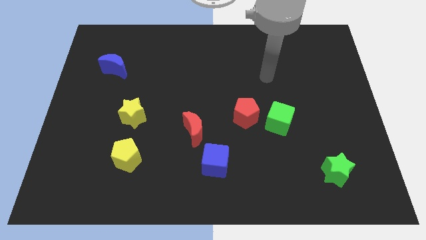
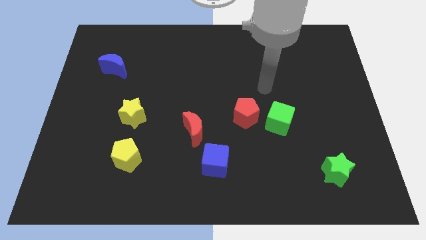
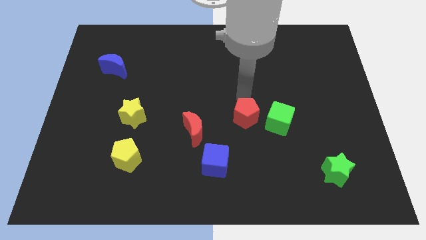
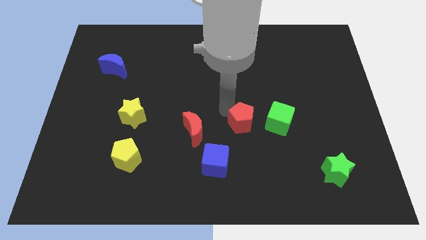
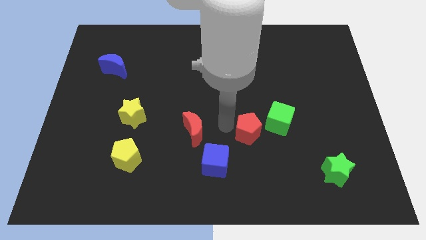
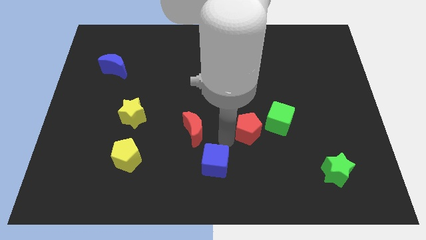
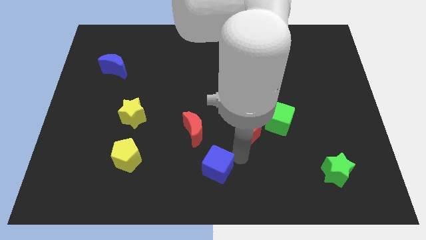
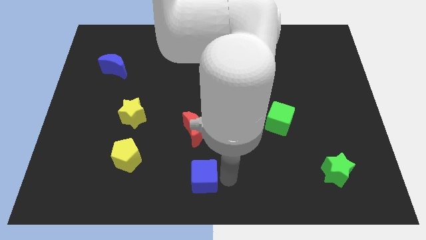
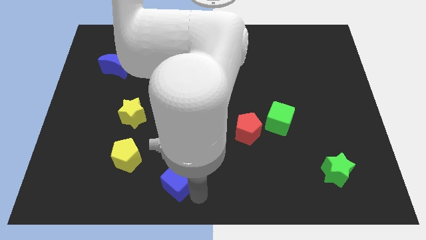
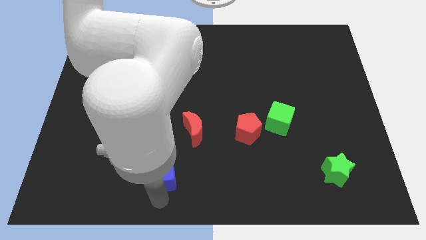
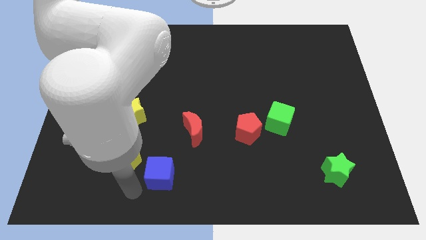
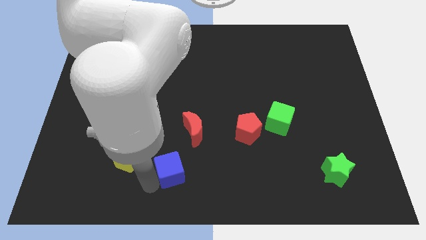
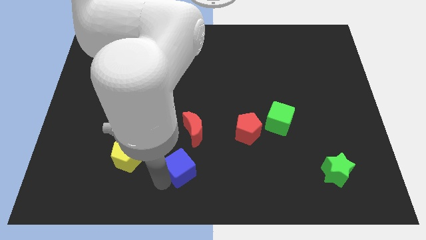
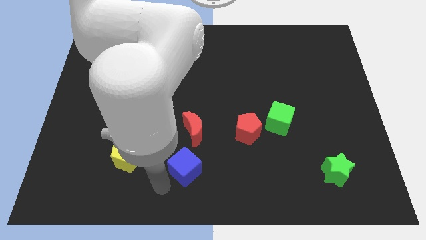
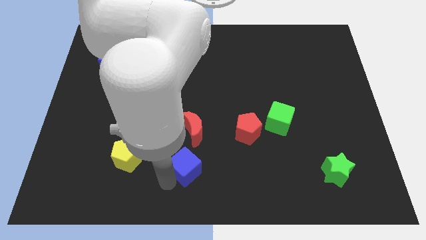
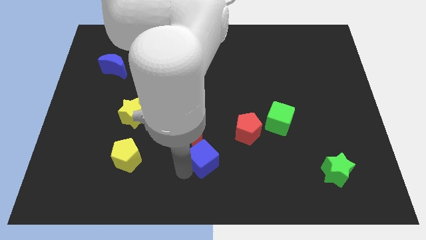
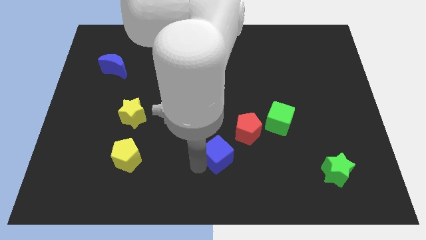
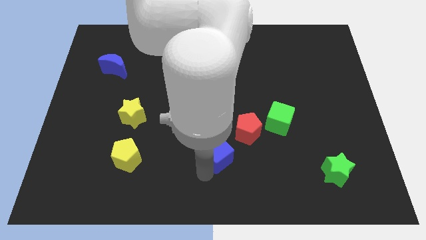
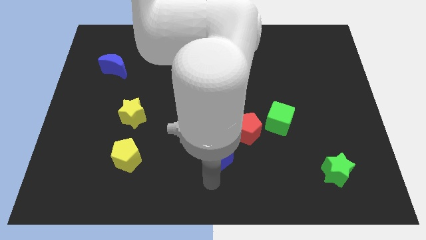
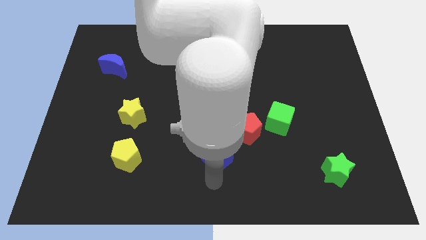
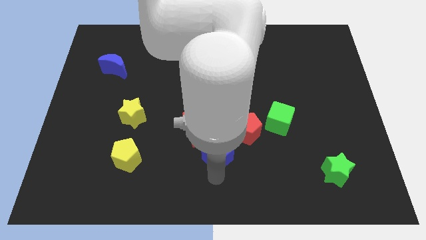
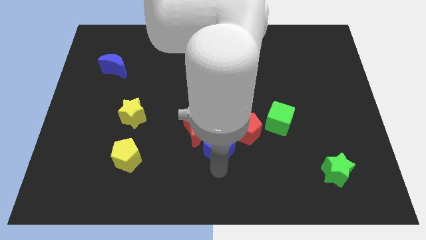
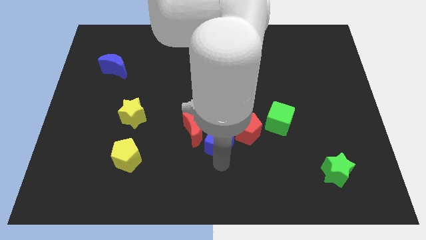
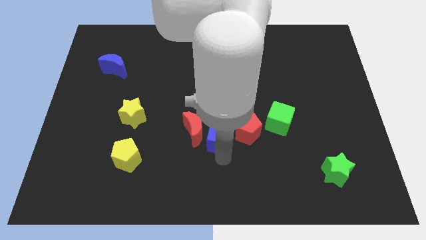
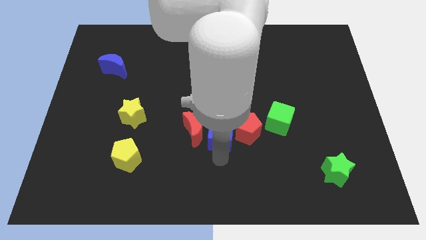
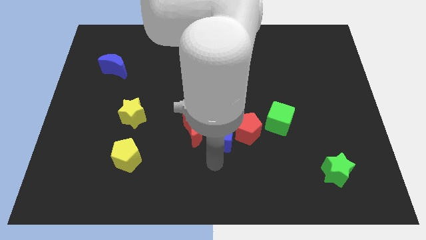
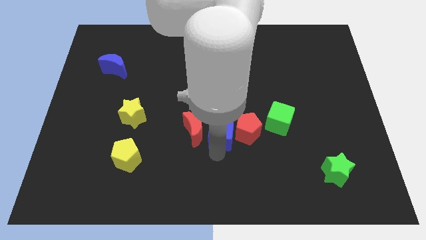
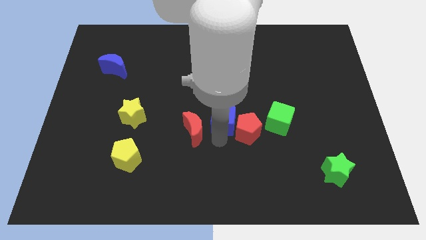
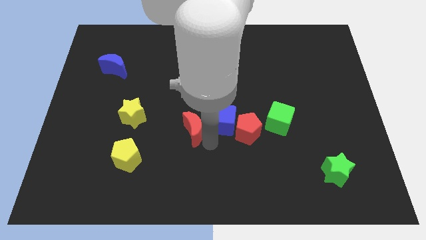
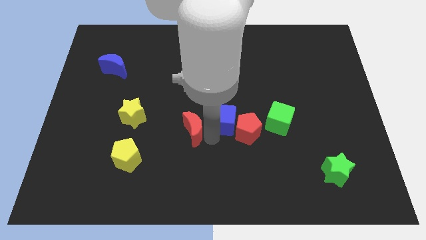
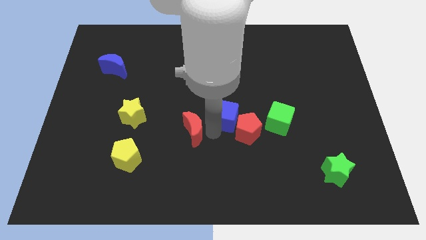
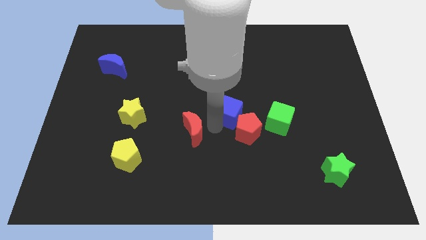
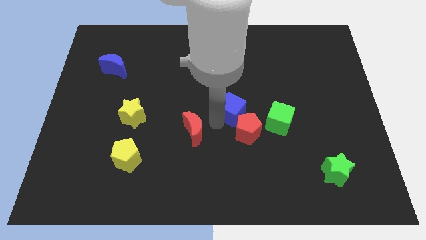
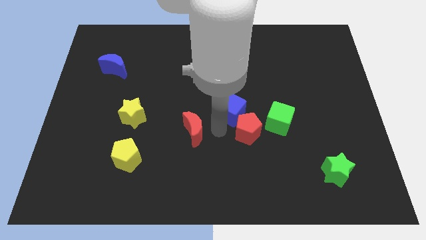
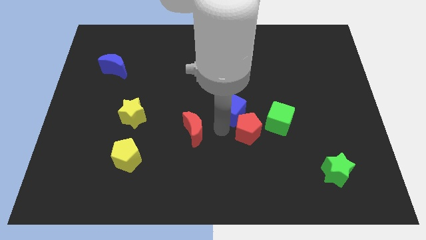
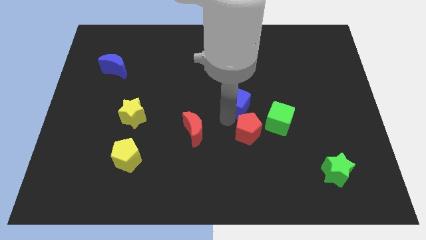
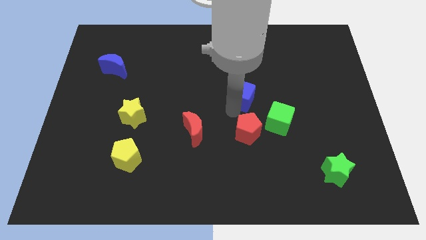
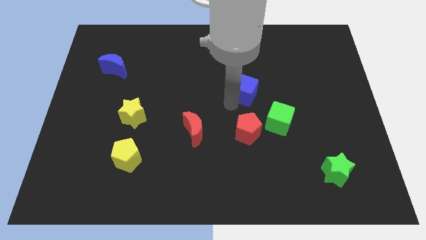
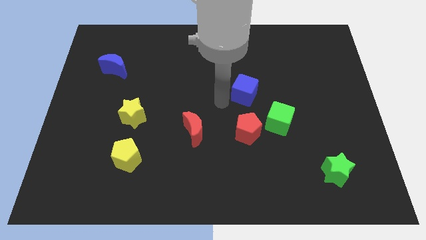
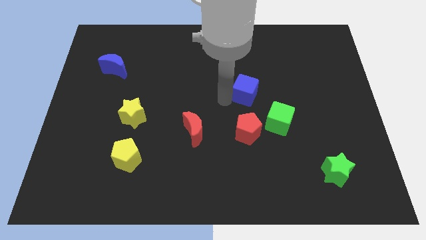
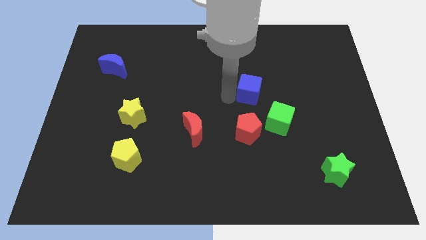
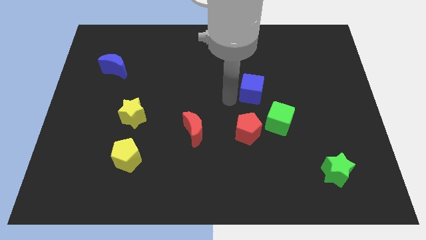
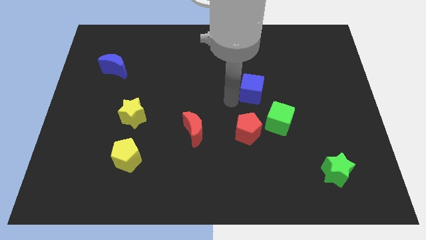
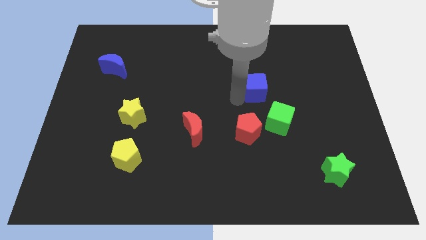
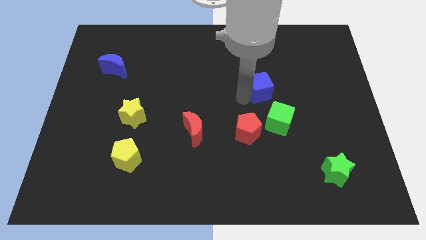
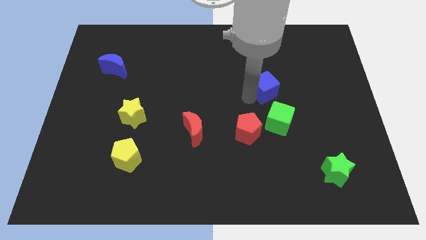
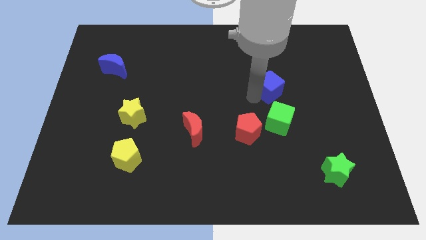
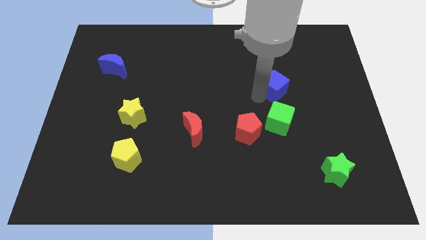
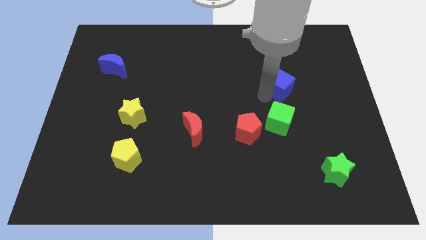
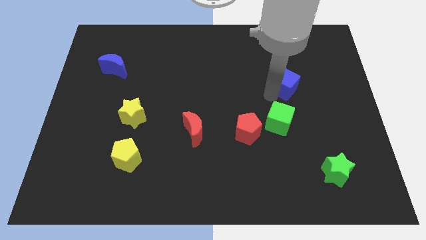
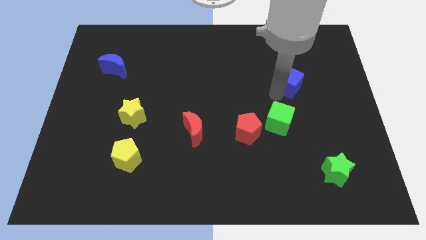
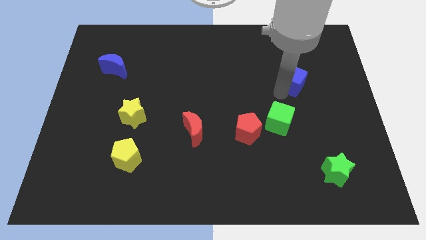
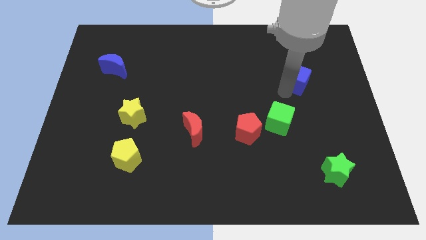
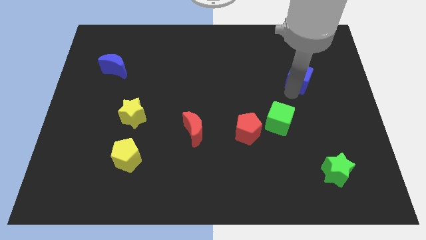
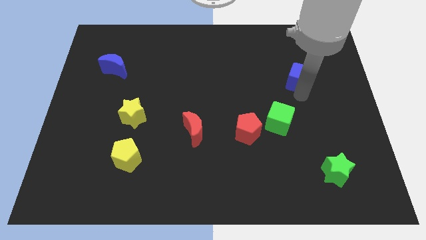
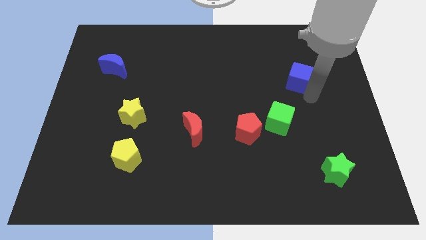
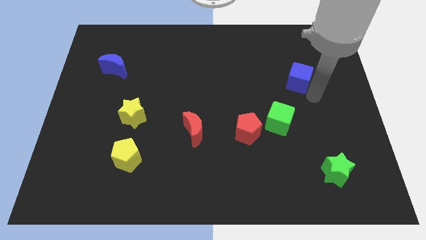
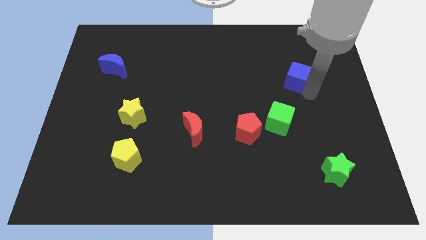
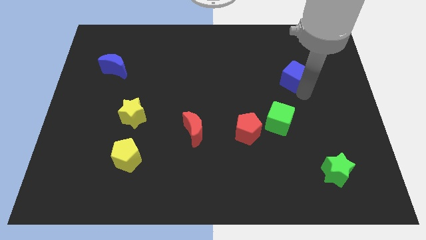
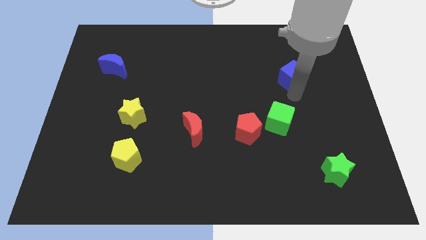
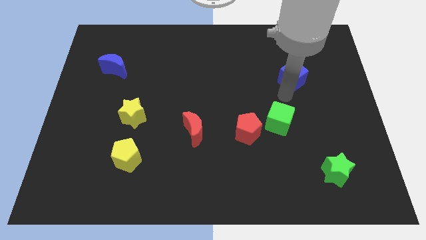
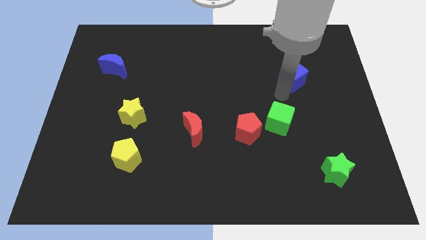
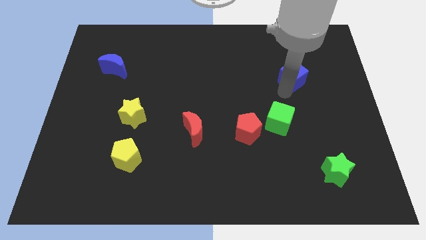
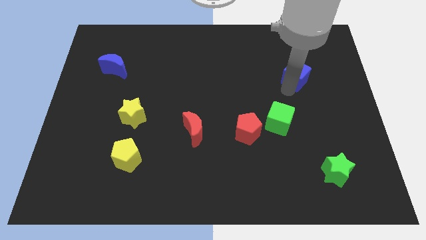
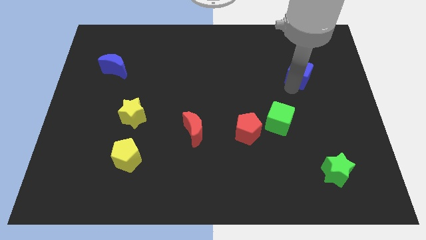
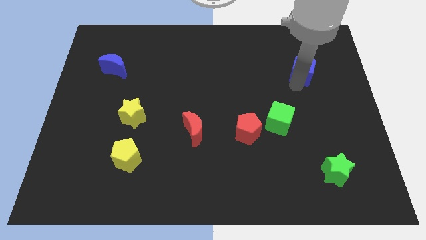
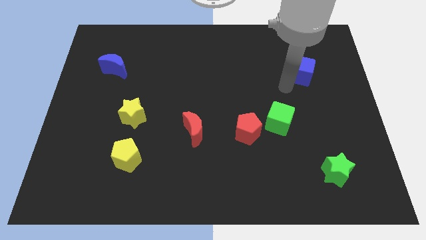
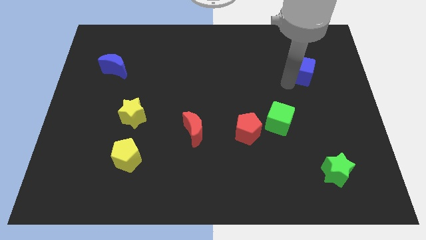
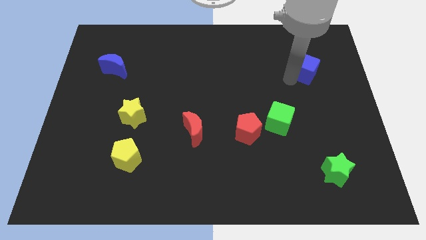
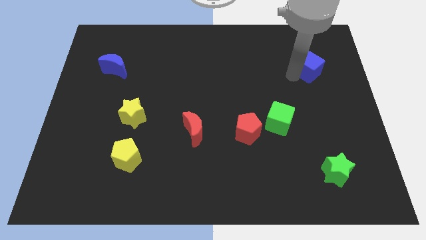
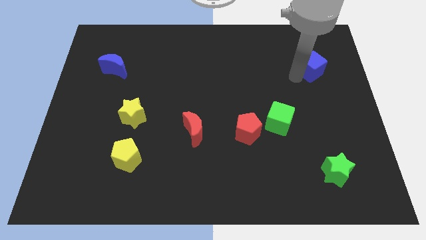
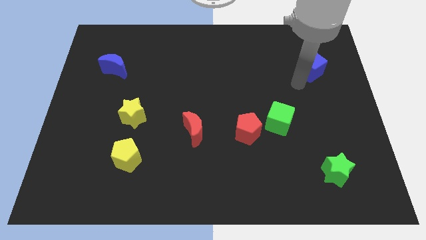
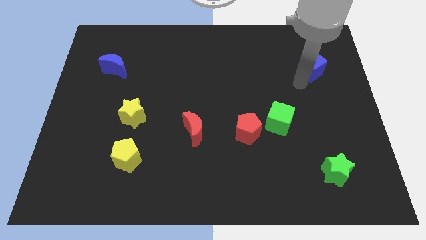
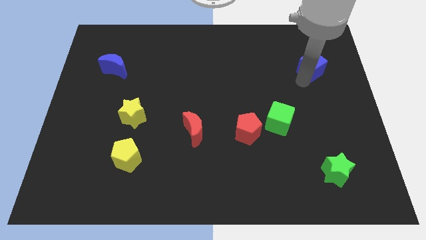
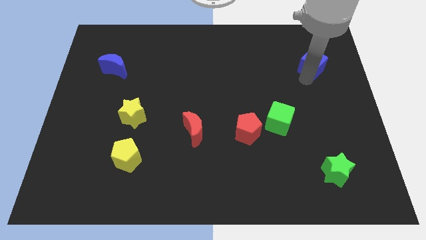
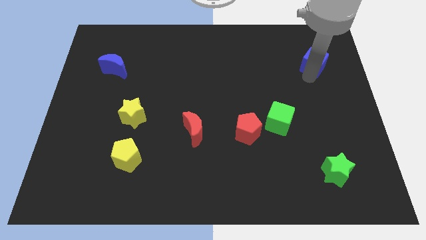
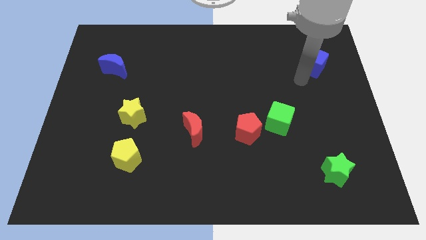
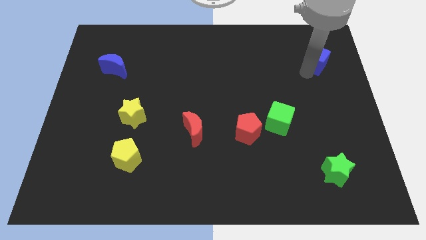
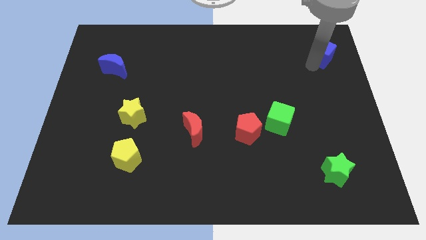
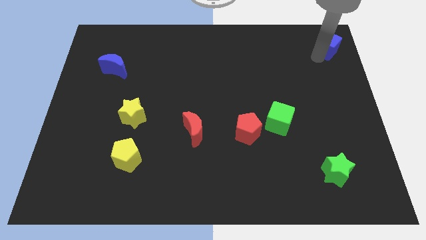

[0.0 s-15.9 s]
slide the blue cube to the top right
